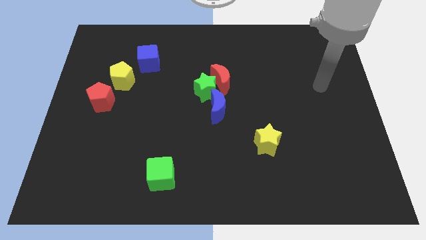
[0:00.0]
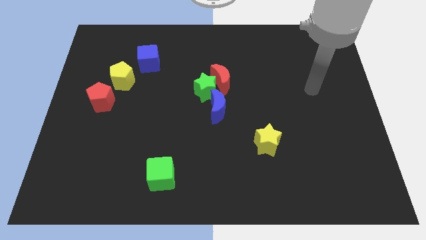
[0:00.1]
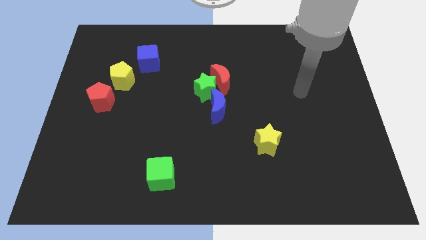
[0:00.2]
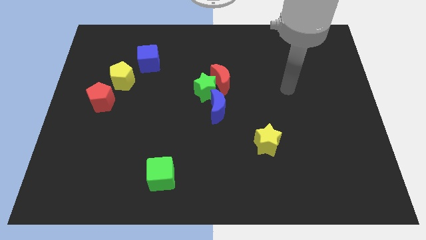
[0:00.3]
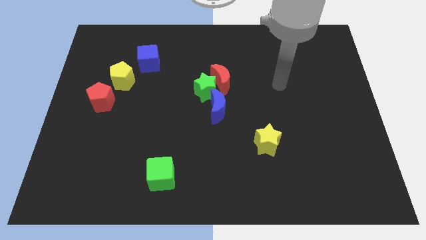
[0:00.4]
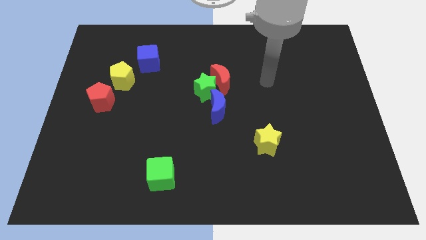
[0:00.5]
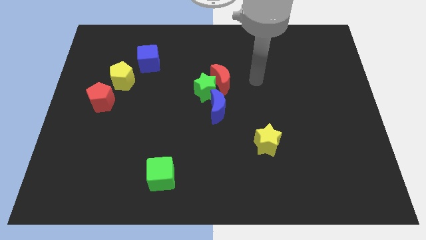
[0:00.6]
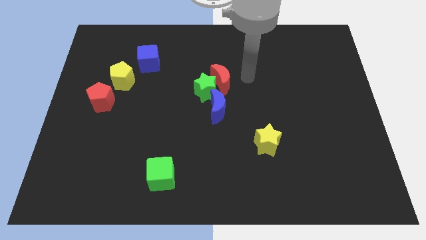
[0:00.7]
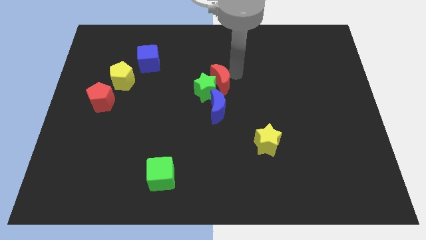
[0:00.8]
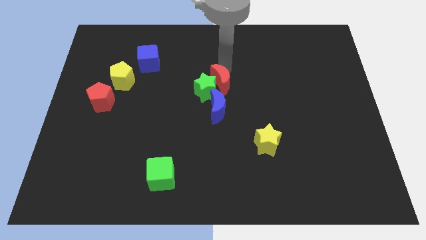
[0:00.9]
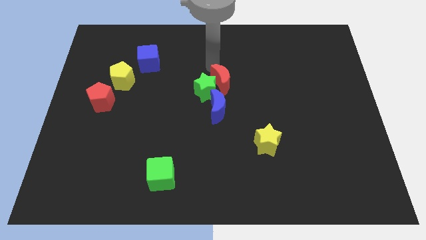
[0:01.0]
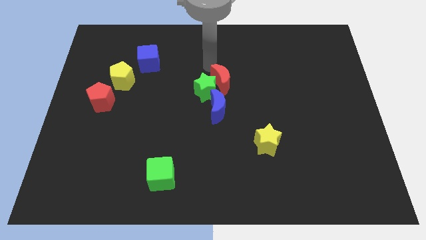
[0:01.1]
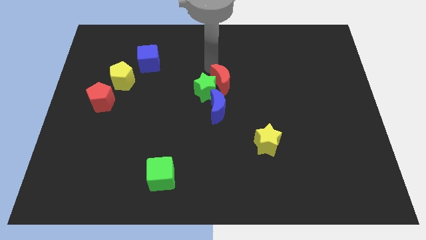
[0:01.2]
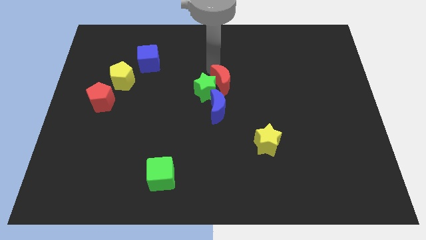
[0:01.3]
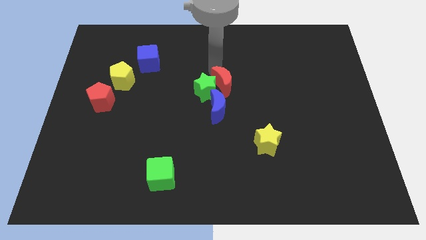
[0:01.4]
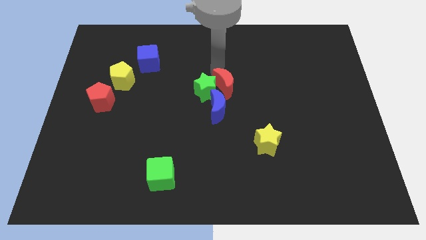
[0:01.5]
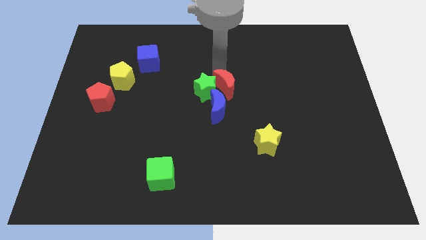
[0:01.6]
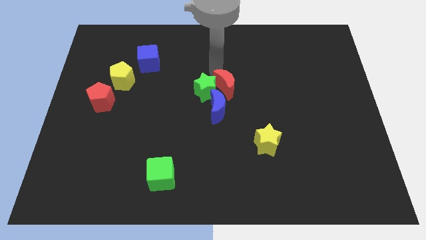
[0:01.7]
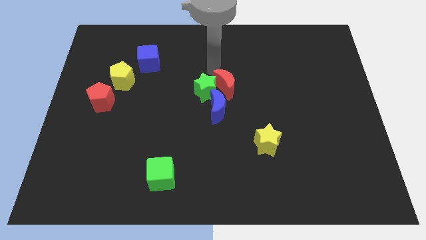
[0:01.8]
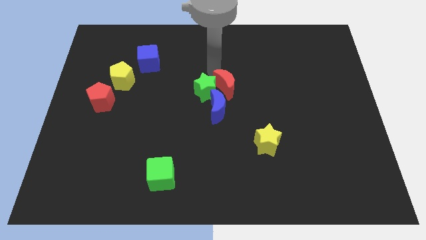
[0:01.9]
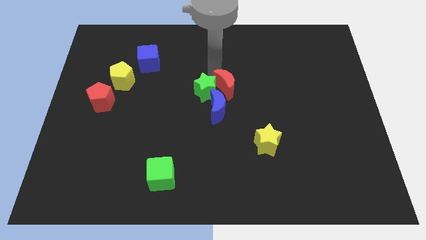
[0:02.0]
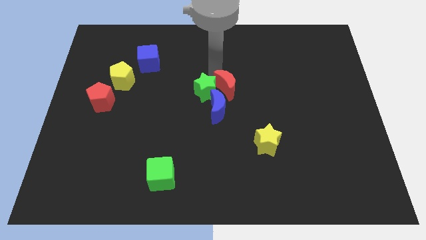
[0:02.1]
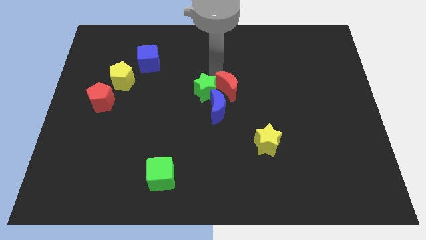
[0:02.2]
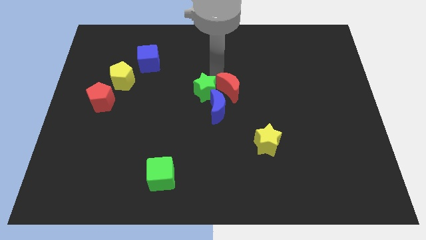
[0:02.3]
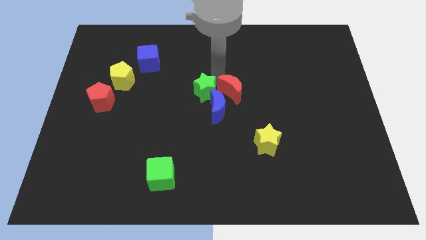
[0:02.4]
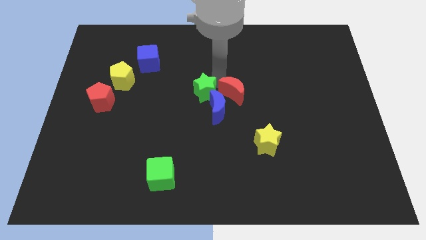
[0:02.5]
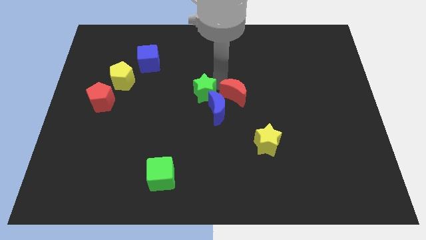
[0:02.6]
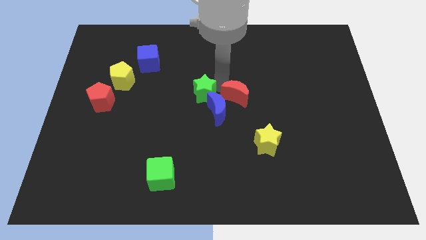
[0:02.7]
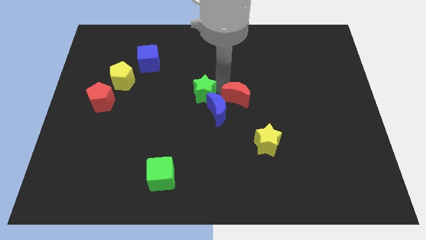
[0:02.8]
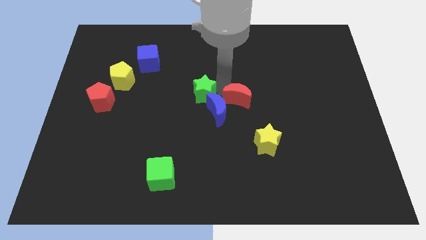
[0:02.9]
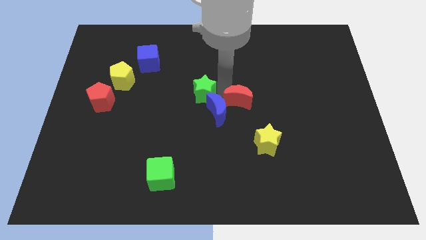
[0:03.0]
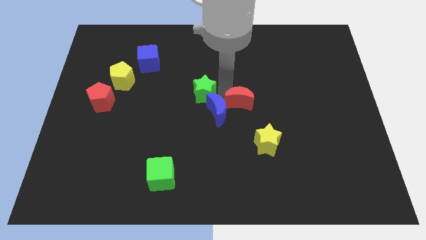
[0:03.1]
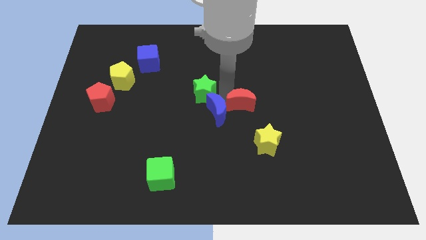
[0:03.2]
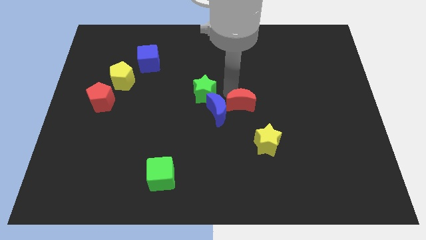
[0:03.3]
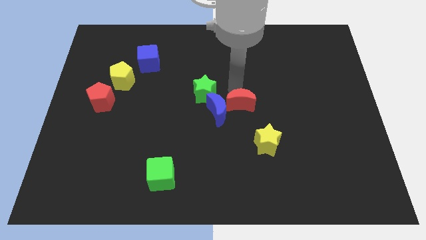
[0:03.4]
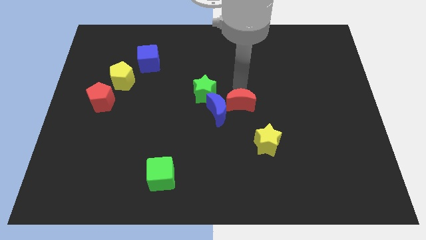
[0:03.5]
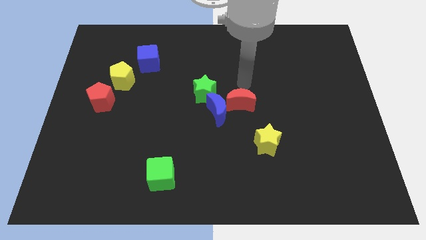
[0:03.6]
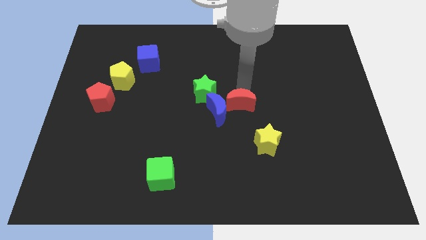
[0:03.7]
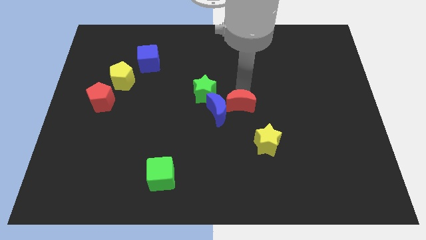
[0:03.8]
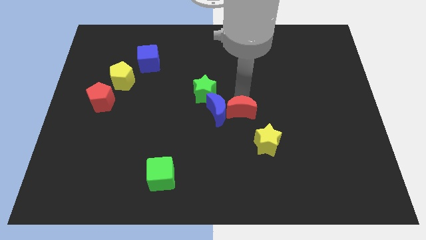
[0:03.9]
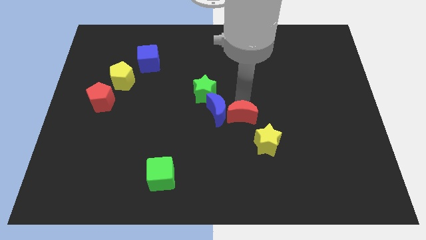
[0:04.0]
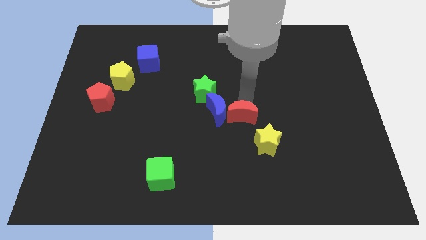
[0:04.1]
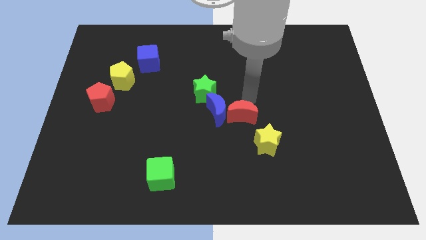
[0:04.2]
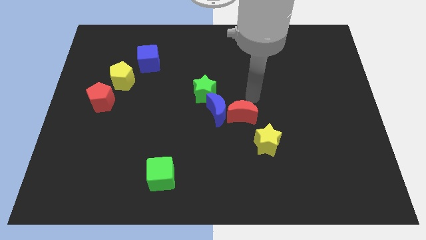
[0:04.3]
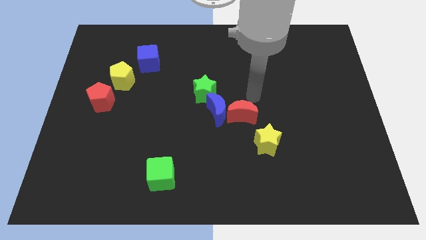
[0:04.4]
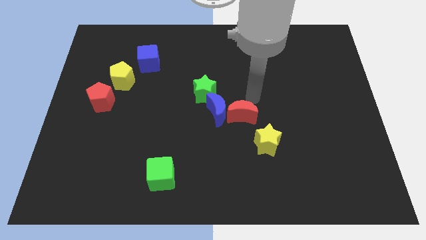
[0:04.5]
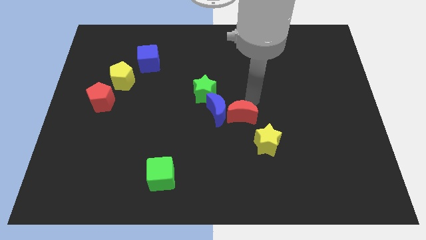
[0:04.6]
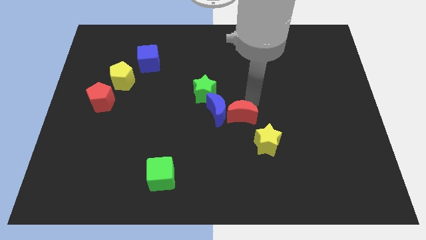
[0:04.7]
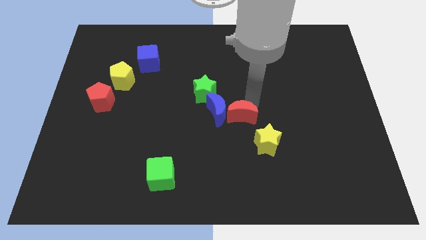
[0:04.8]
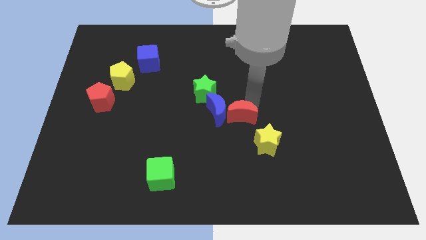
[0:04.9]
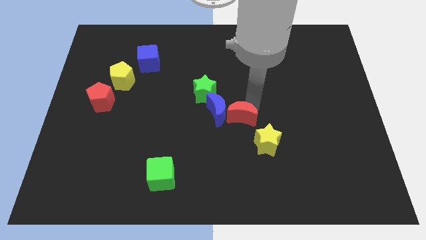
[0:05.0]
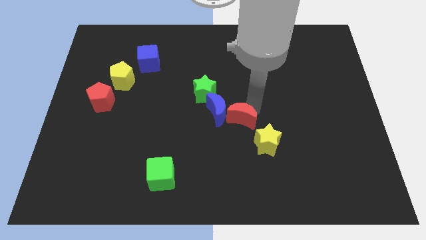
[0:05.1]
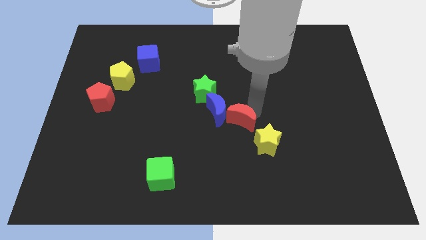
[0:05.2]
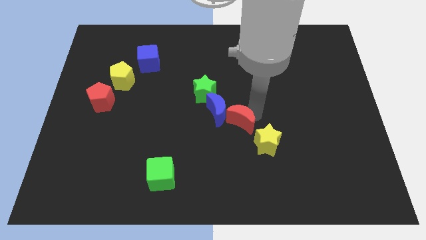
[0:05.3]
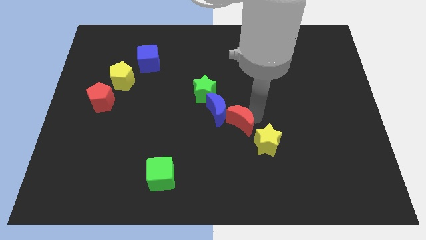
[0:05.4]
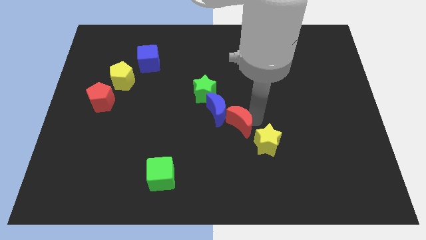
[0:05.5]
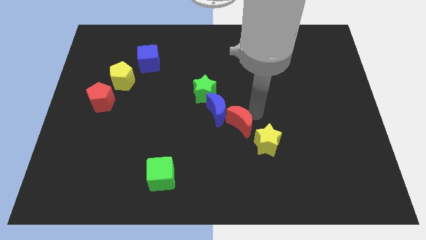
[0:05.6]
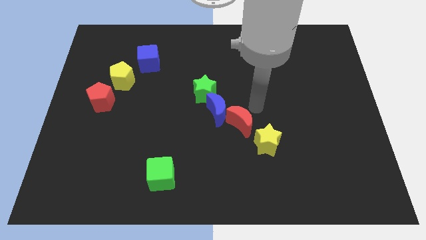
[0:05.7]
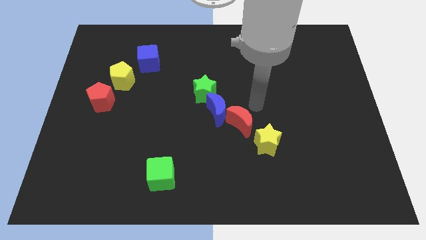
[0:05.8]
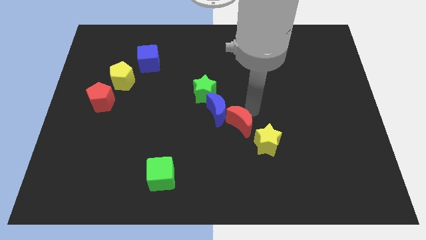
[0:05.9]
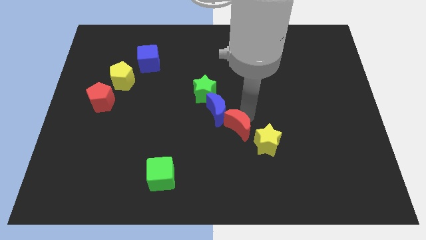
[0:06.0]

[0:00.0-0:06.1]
move the red moon to the bottom of the blue moon

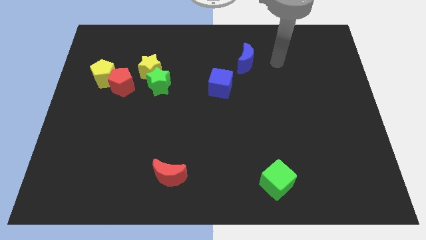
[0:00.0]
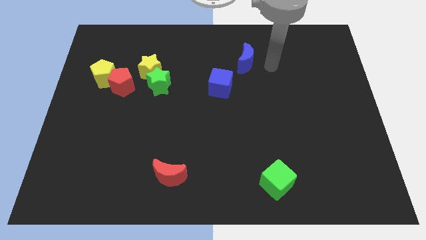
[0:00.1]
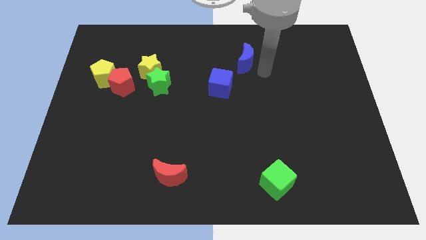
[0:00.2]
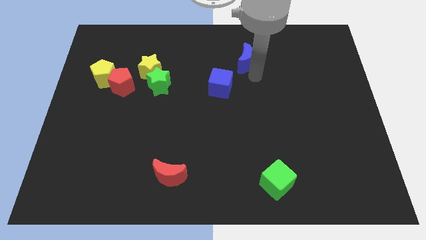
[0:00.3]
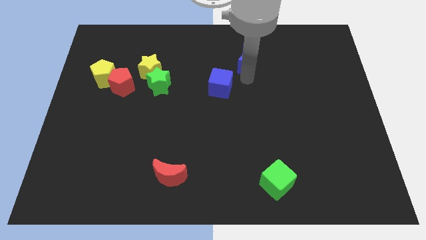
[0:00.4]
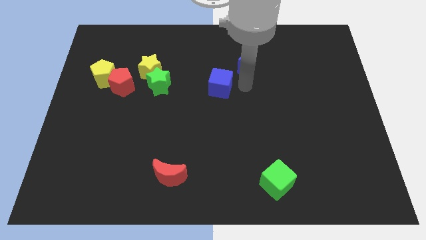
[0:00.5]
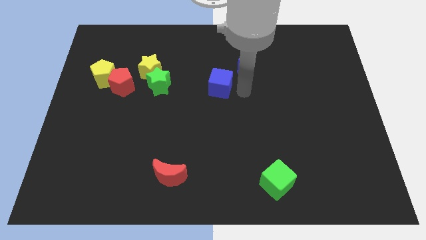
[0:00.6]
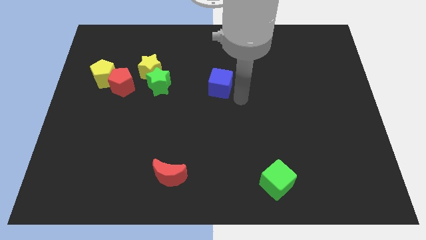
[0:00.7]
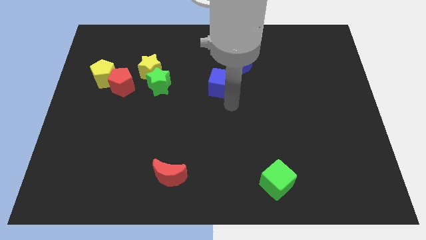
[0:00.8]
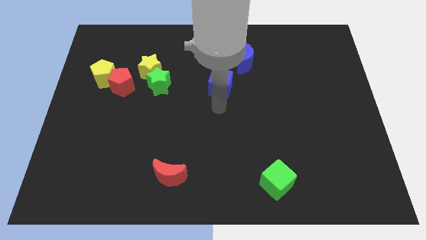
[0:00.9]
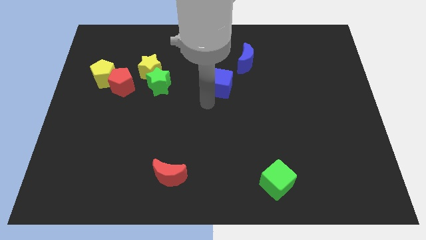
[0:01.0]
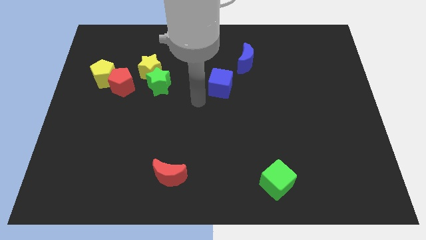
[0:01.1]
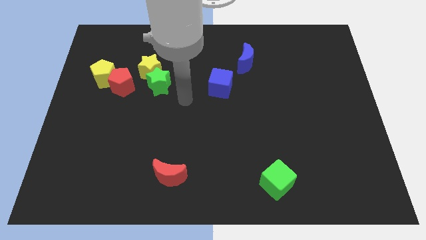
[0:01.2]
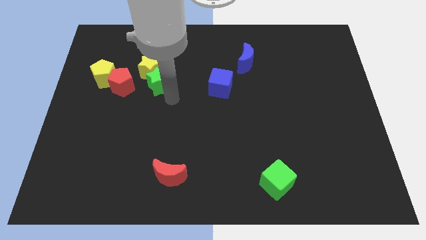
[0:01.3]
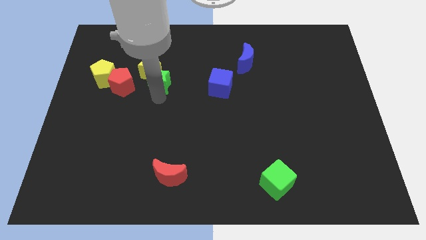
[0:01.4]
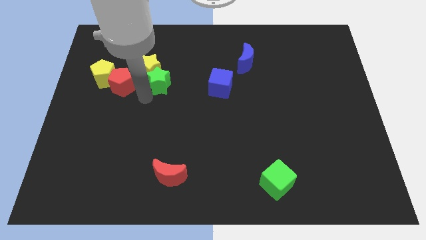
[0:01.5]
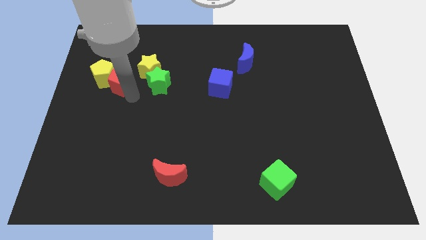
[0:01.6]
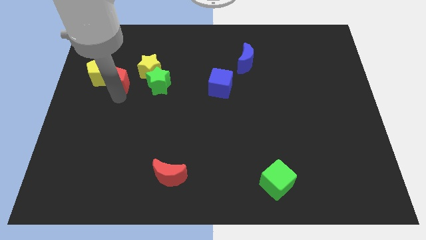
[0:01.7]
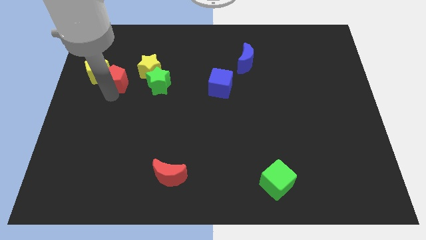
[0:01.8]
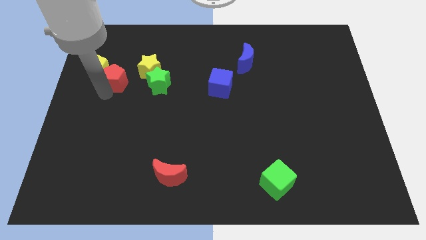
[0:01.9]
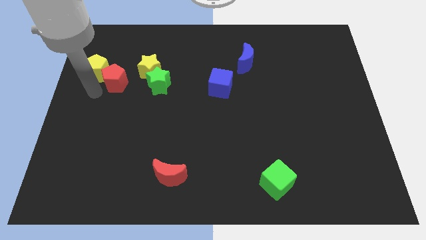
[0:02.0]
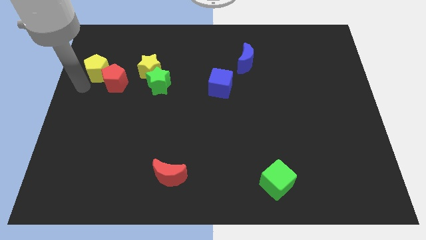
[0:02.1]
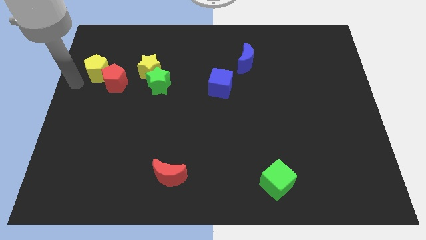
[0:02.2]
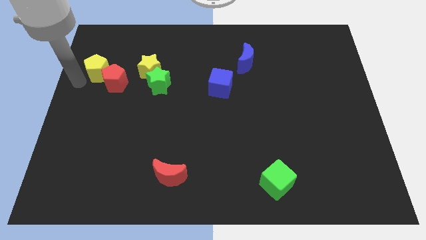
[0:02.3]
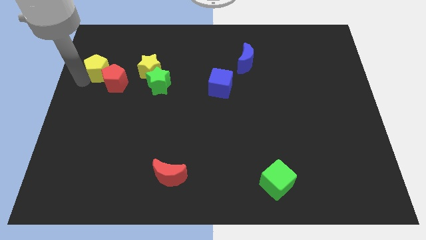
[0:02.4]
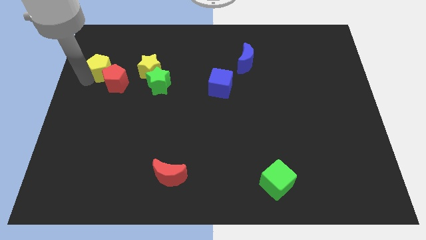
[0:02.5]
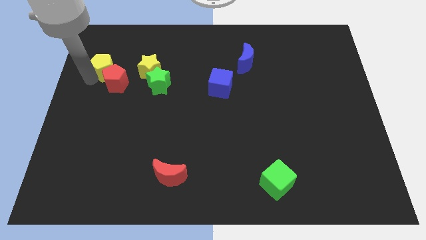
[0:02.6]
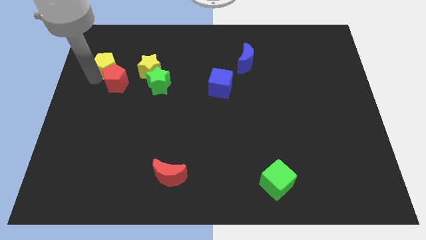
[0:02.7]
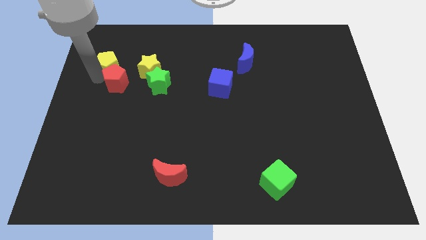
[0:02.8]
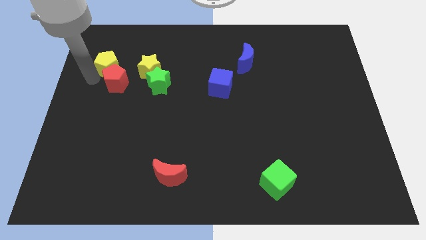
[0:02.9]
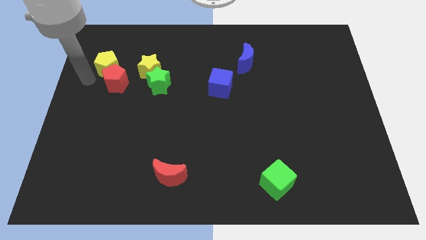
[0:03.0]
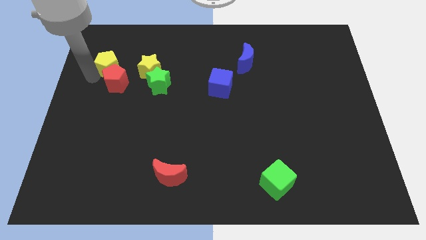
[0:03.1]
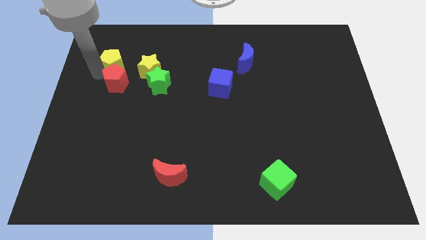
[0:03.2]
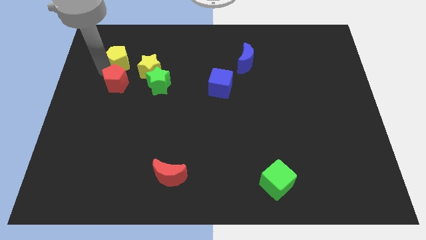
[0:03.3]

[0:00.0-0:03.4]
move the yellow pentagon diagonally up and to the left of the yellow star
